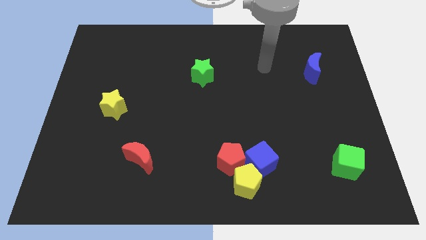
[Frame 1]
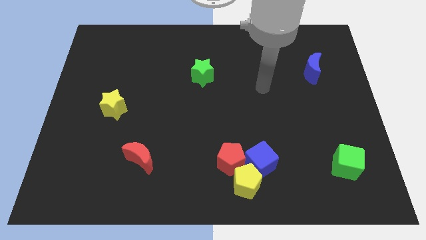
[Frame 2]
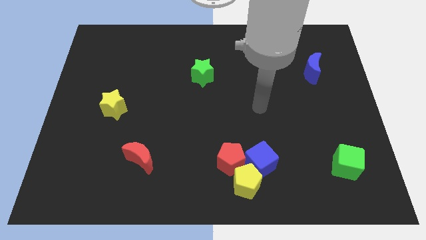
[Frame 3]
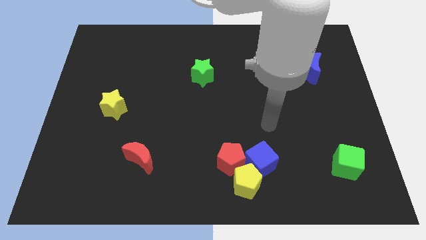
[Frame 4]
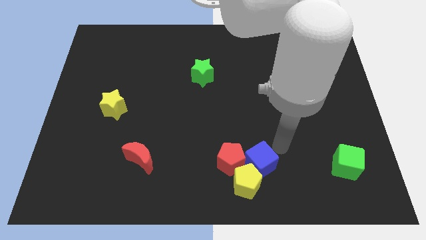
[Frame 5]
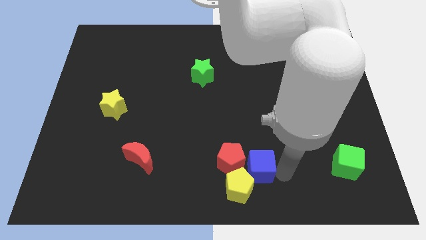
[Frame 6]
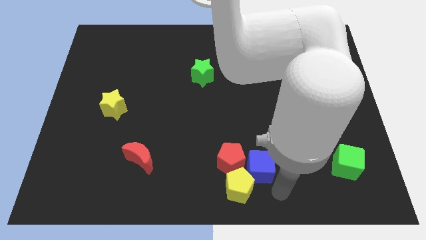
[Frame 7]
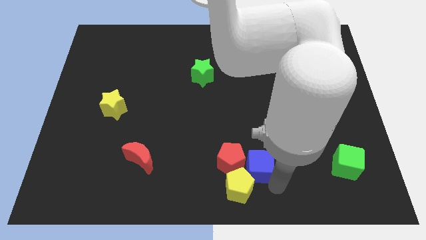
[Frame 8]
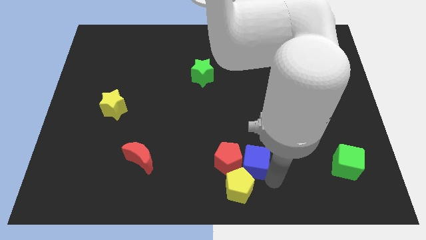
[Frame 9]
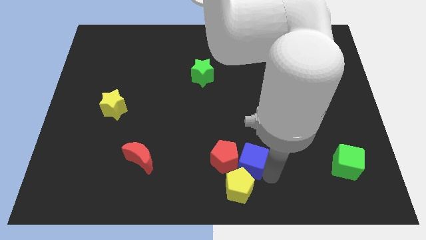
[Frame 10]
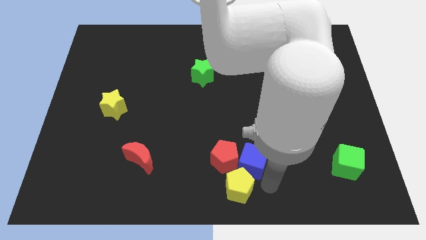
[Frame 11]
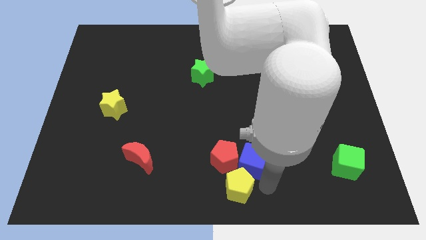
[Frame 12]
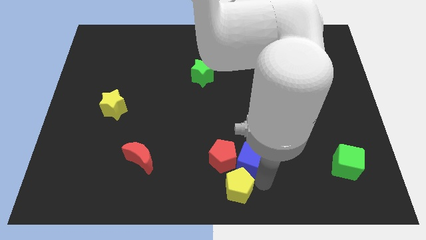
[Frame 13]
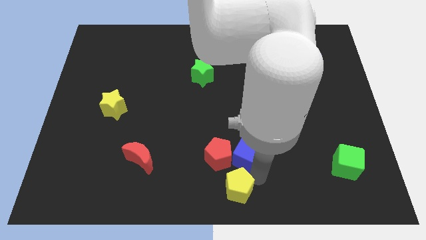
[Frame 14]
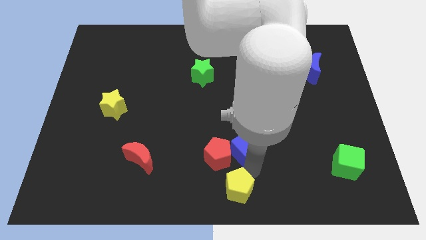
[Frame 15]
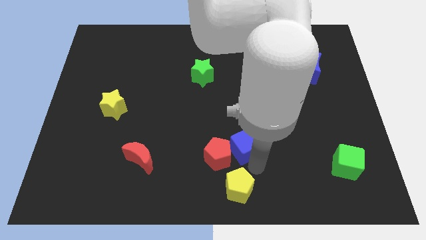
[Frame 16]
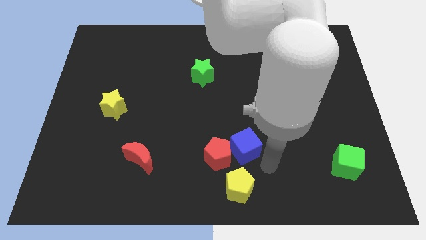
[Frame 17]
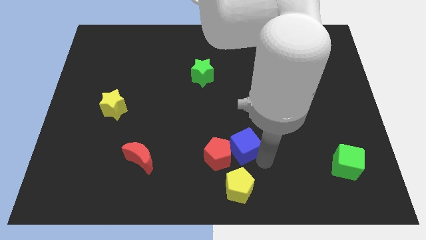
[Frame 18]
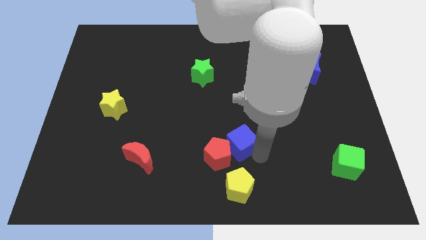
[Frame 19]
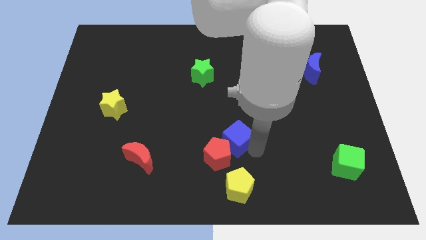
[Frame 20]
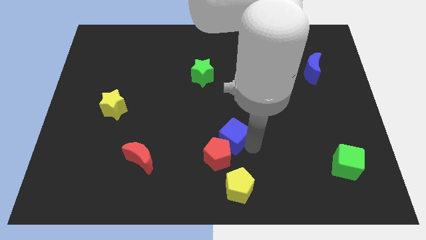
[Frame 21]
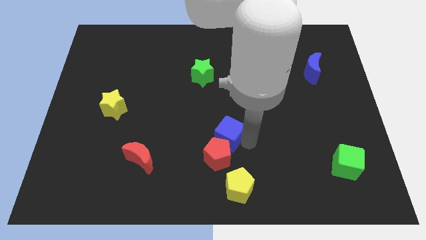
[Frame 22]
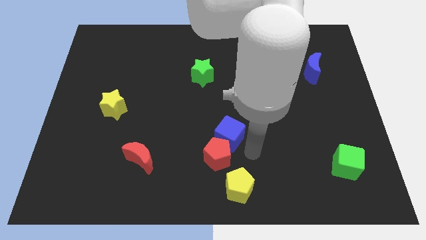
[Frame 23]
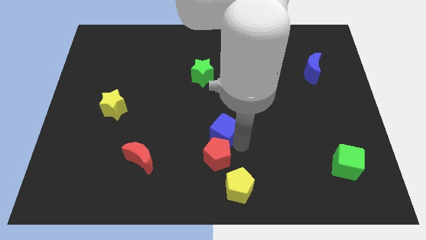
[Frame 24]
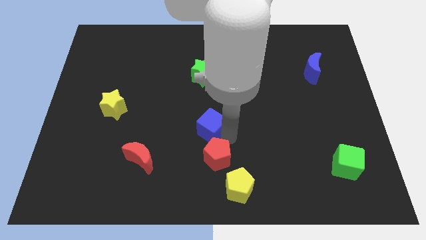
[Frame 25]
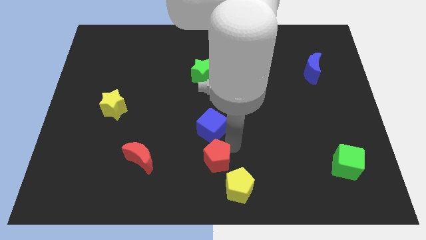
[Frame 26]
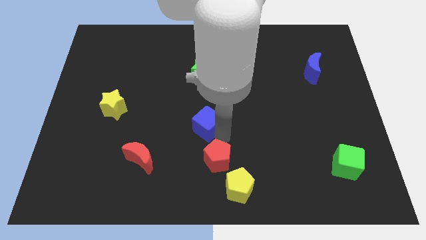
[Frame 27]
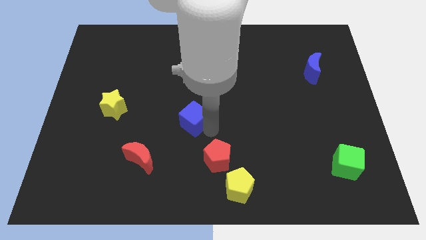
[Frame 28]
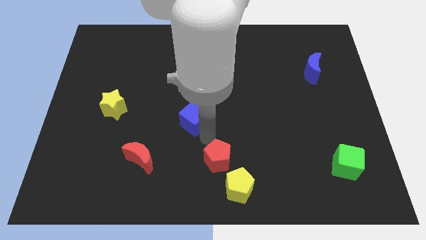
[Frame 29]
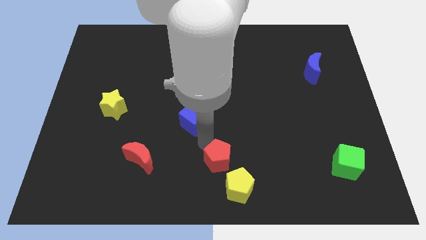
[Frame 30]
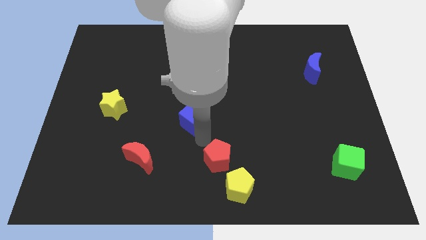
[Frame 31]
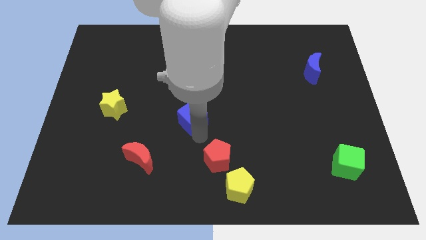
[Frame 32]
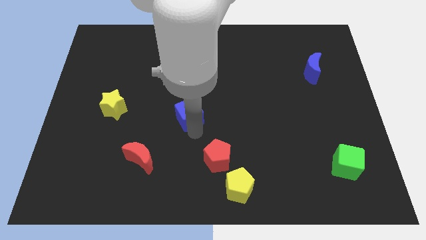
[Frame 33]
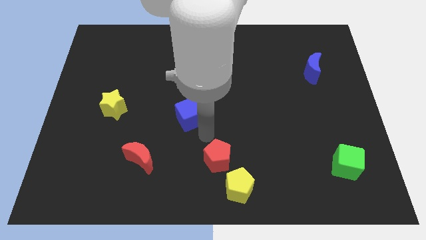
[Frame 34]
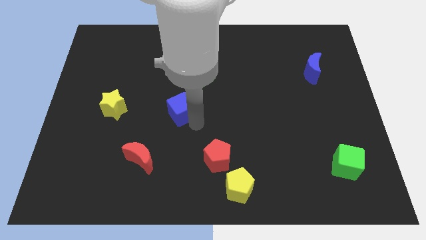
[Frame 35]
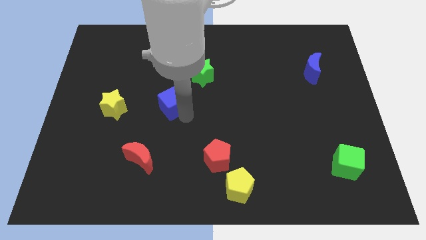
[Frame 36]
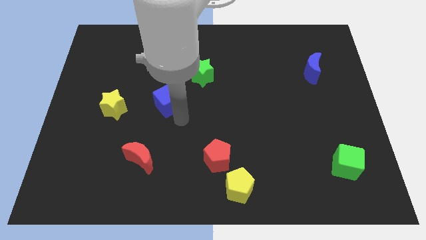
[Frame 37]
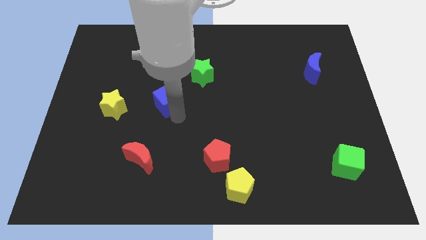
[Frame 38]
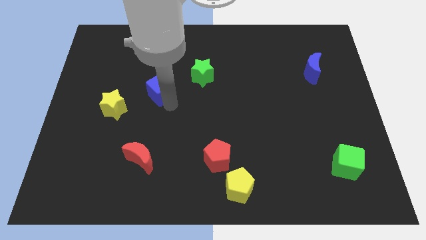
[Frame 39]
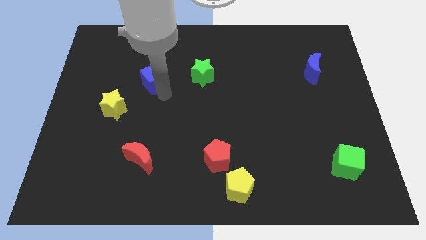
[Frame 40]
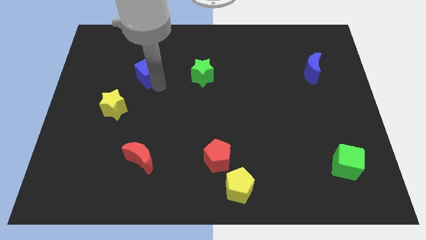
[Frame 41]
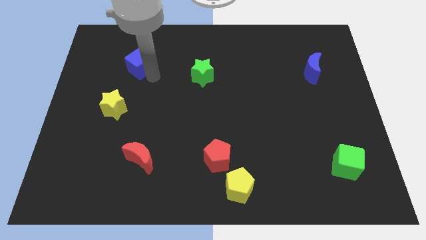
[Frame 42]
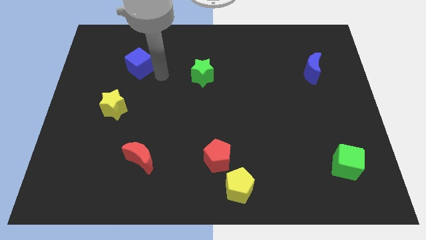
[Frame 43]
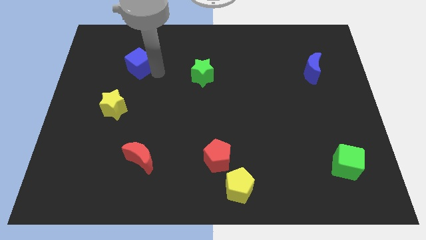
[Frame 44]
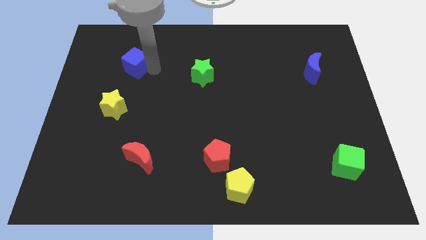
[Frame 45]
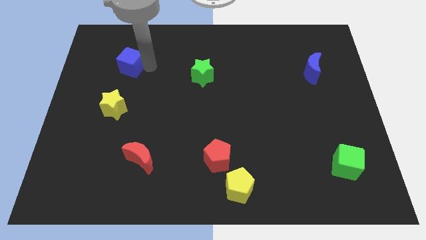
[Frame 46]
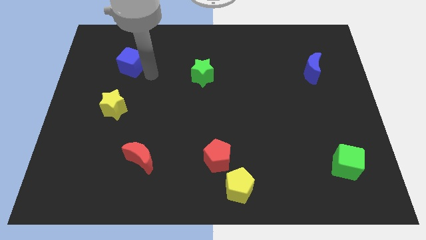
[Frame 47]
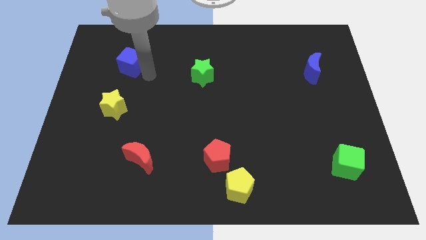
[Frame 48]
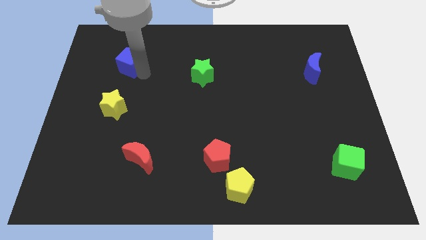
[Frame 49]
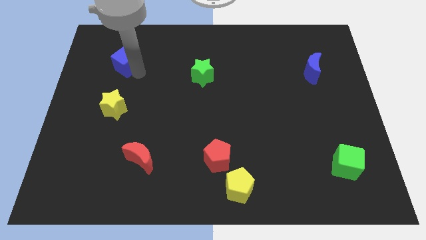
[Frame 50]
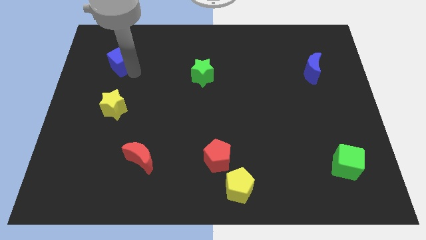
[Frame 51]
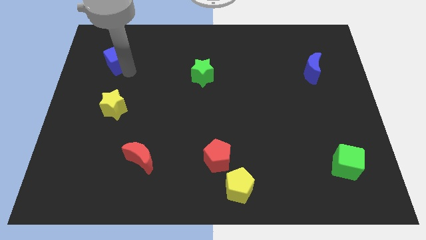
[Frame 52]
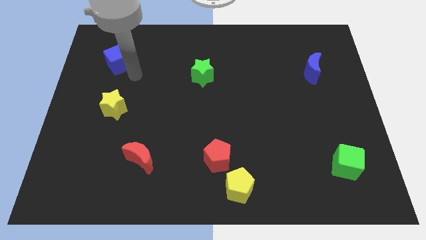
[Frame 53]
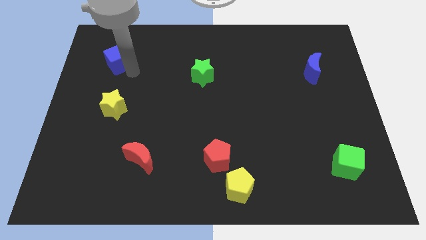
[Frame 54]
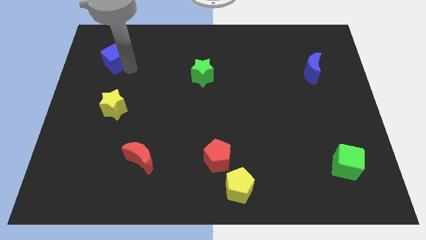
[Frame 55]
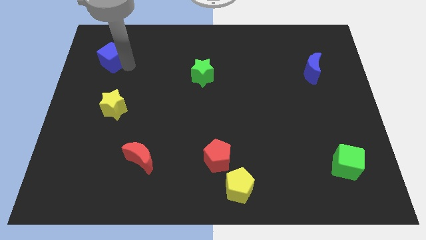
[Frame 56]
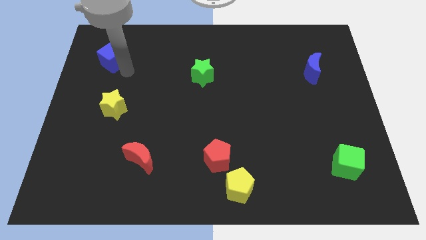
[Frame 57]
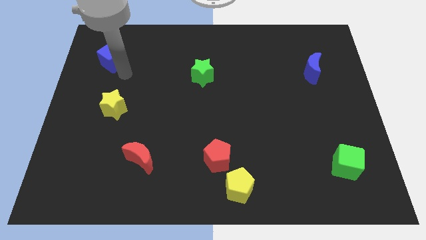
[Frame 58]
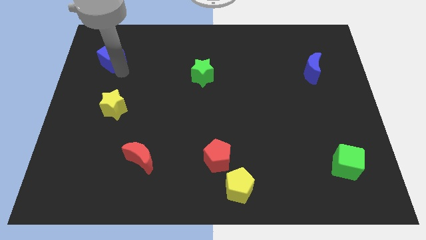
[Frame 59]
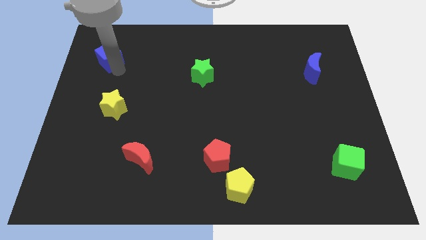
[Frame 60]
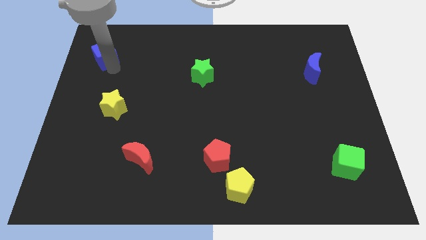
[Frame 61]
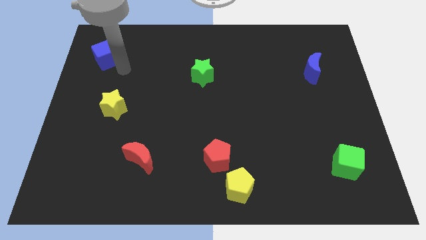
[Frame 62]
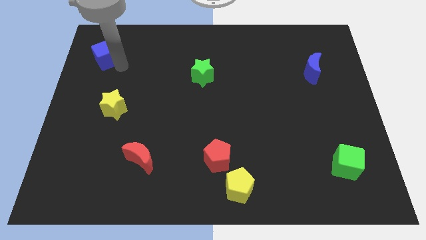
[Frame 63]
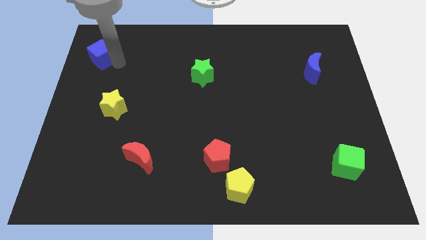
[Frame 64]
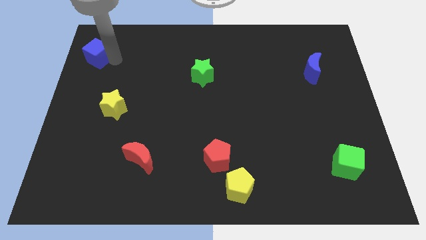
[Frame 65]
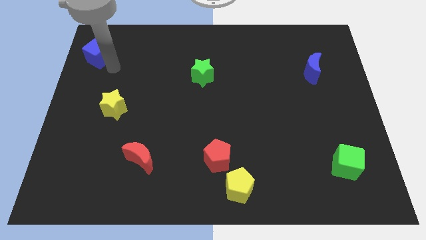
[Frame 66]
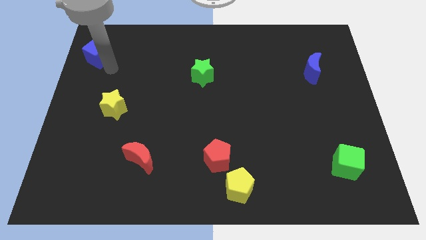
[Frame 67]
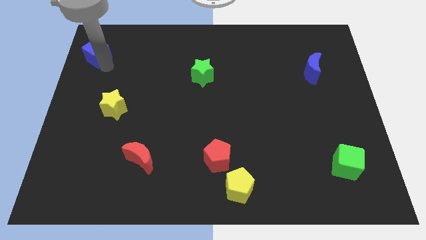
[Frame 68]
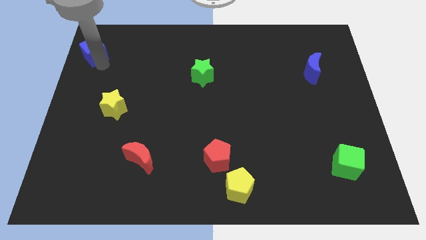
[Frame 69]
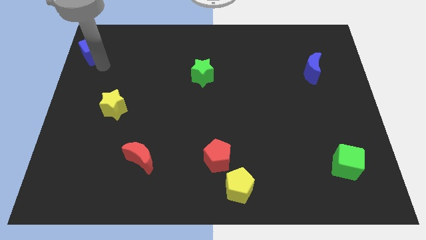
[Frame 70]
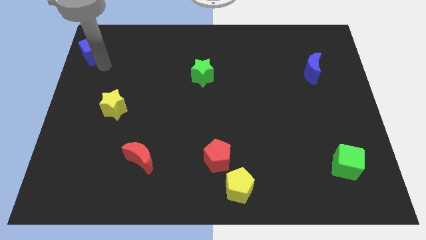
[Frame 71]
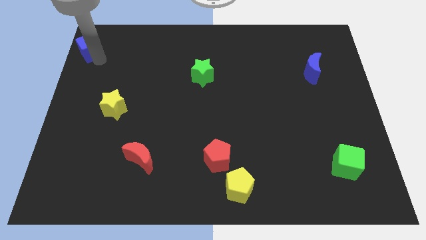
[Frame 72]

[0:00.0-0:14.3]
move the blue cube to the top left corner
